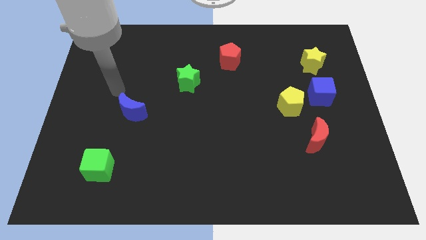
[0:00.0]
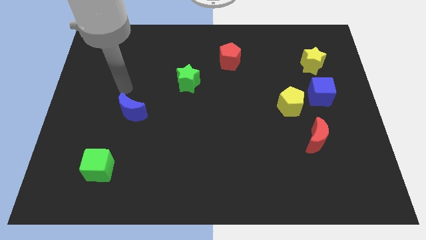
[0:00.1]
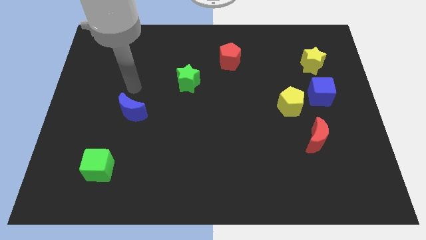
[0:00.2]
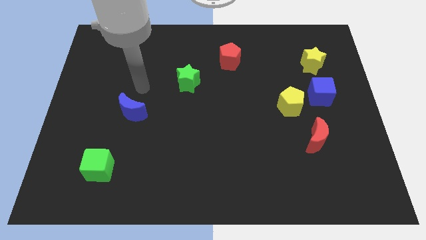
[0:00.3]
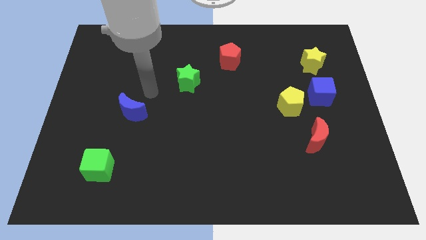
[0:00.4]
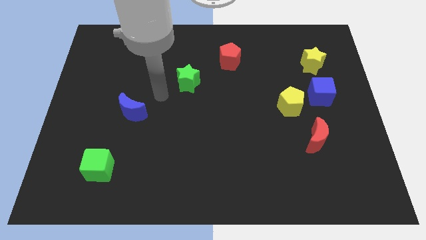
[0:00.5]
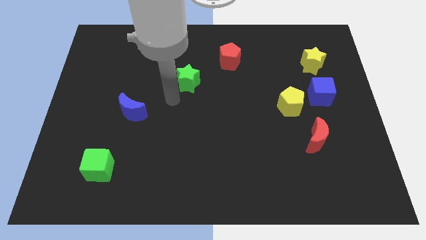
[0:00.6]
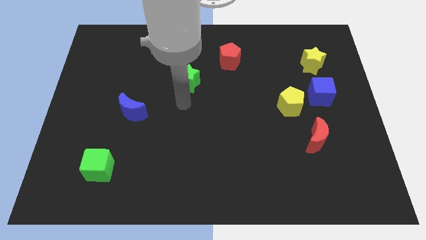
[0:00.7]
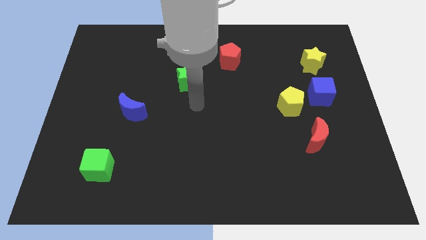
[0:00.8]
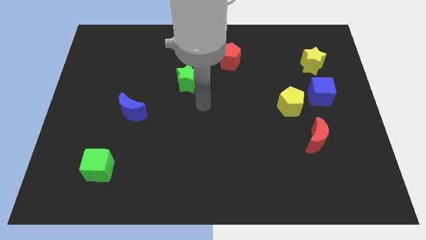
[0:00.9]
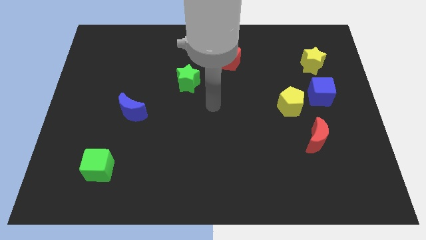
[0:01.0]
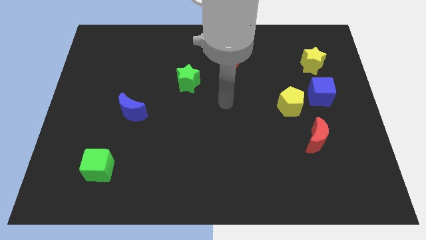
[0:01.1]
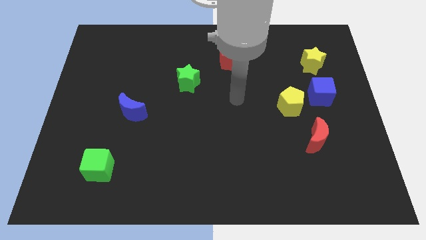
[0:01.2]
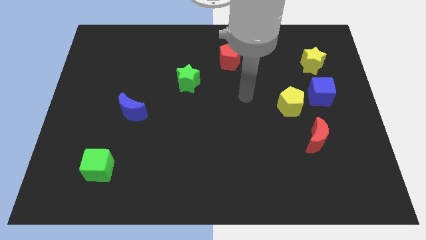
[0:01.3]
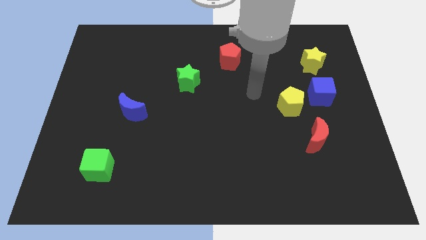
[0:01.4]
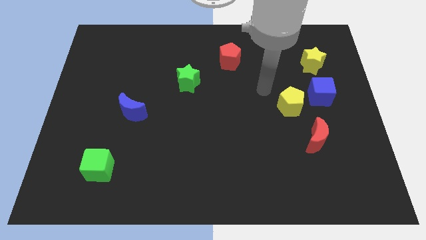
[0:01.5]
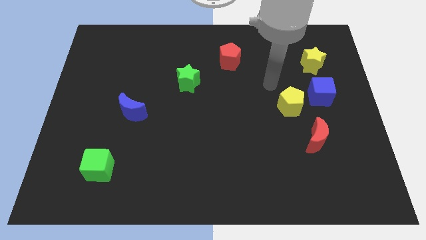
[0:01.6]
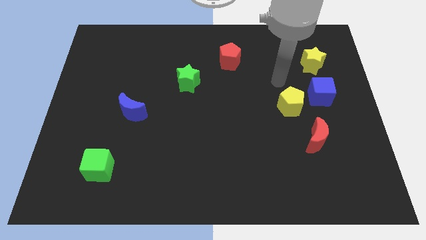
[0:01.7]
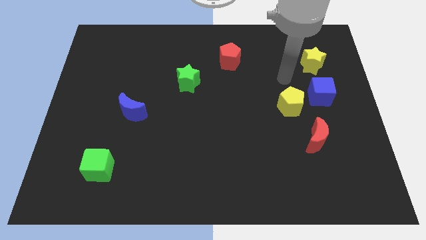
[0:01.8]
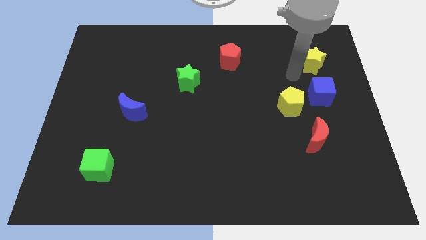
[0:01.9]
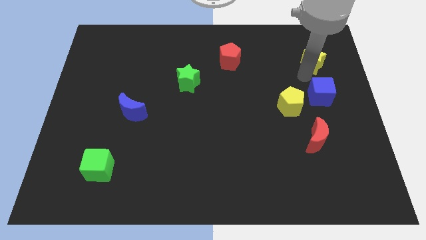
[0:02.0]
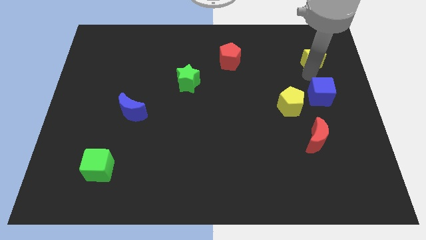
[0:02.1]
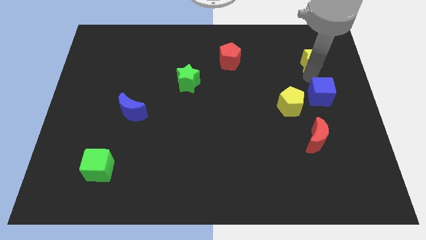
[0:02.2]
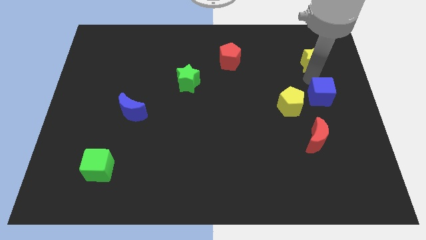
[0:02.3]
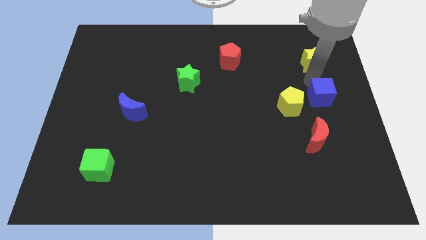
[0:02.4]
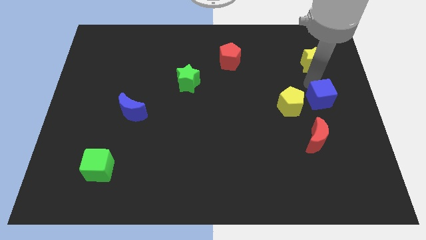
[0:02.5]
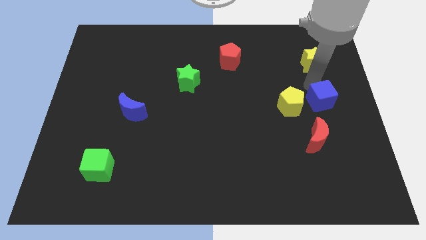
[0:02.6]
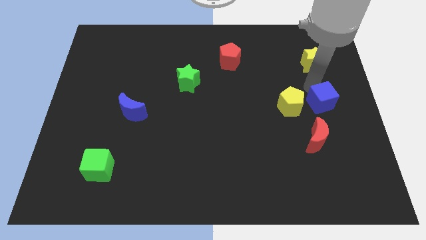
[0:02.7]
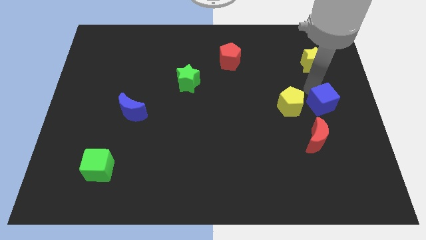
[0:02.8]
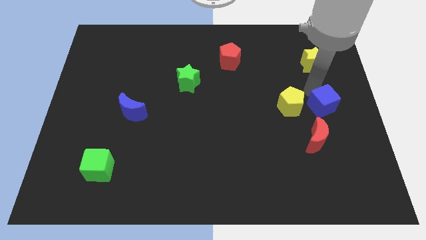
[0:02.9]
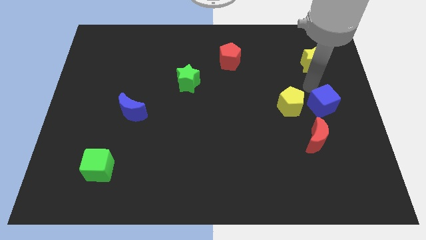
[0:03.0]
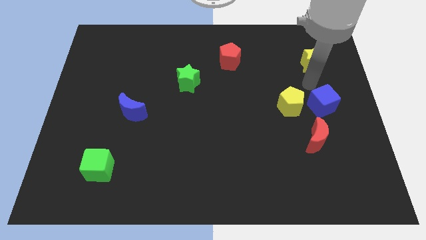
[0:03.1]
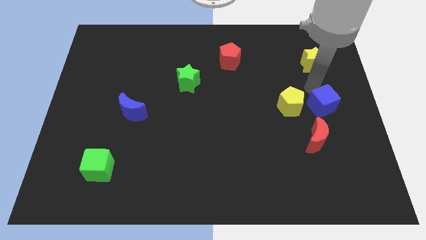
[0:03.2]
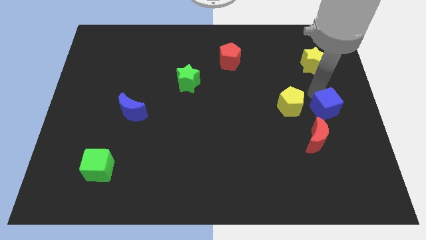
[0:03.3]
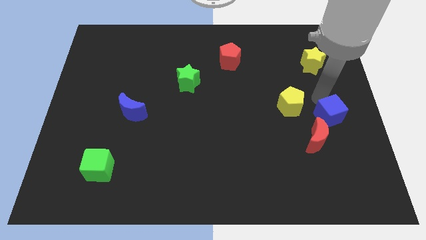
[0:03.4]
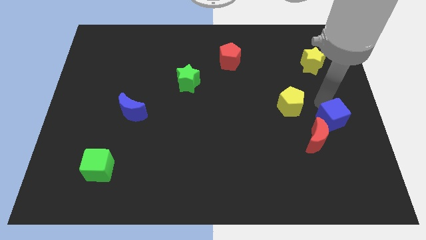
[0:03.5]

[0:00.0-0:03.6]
push the blue cube a little bit downwards

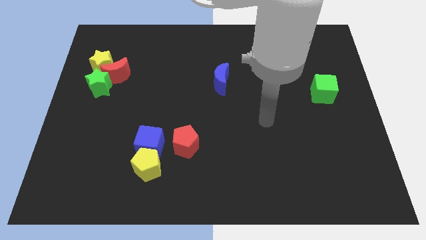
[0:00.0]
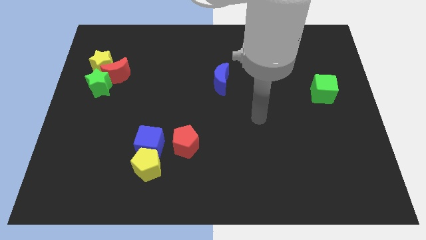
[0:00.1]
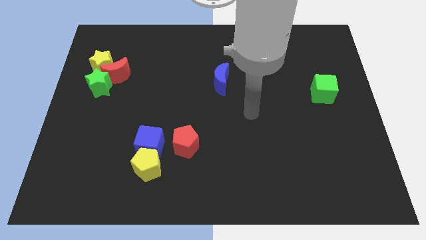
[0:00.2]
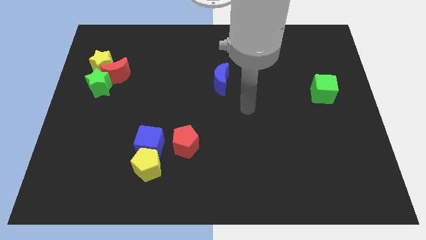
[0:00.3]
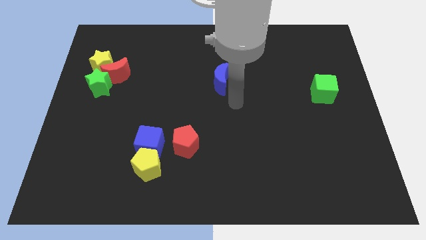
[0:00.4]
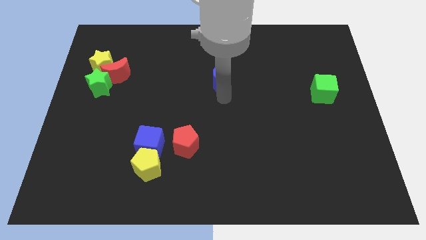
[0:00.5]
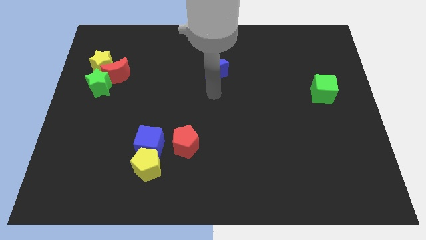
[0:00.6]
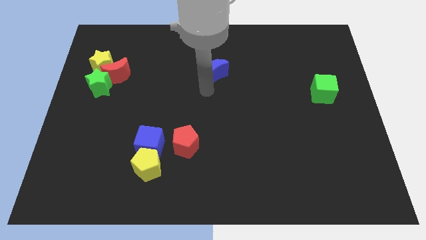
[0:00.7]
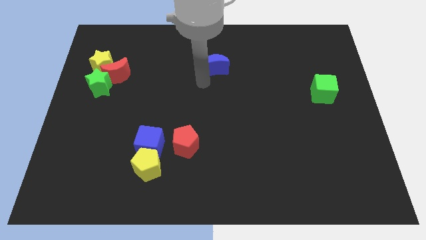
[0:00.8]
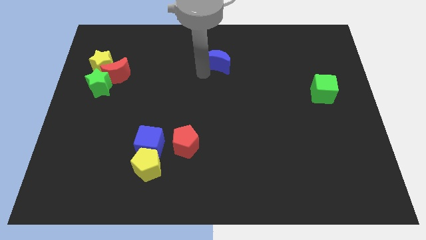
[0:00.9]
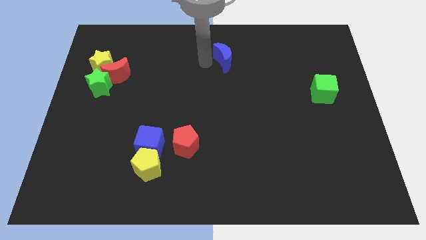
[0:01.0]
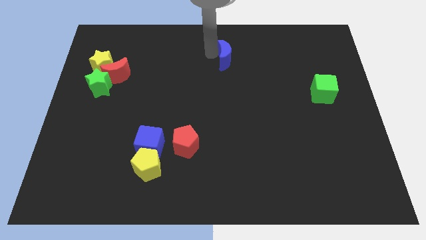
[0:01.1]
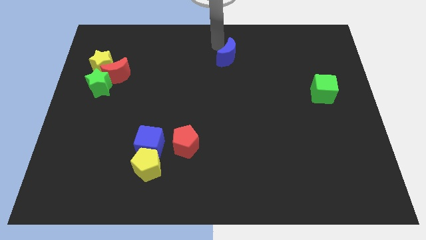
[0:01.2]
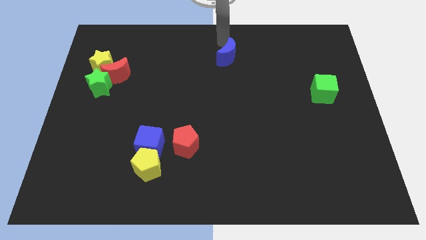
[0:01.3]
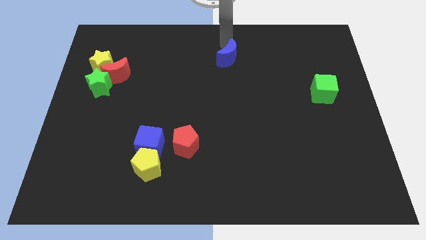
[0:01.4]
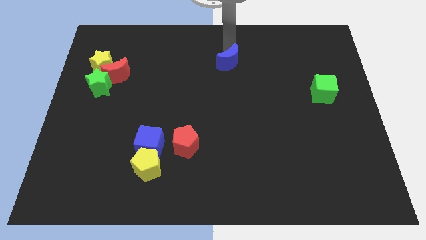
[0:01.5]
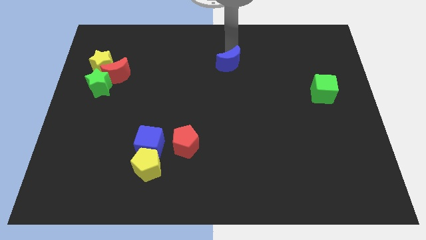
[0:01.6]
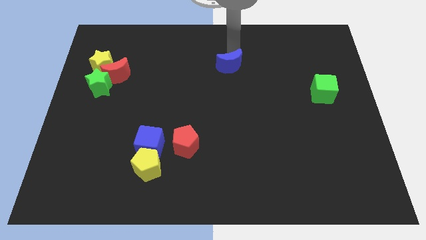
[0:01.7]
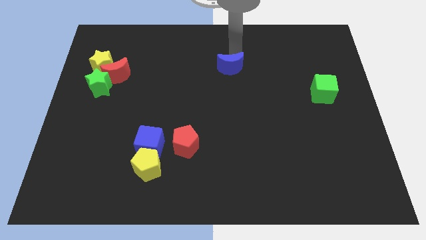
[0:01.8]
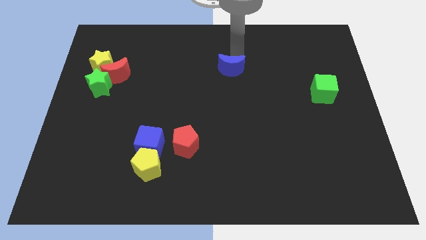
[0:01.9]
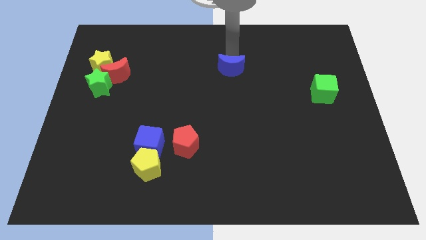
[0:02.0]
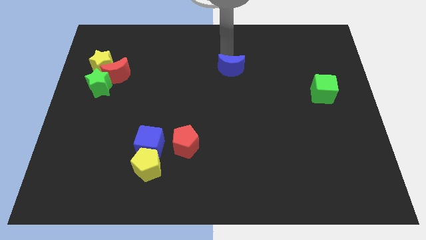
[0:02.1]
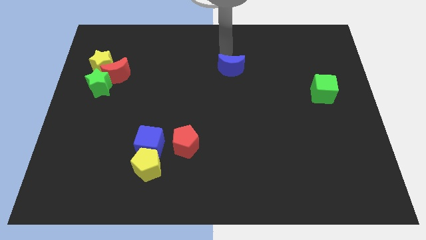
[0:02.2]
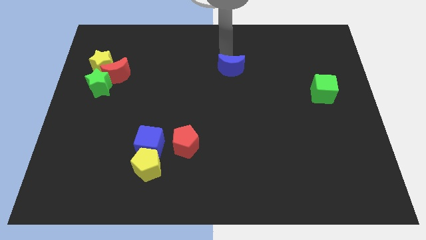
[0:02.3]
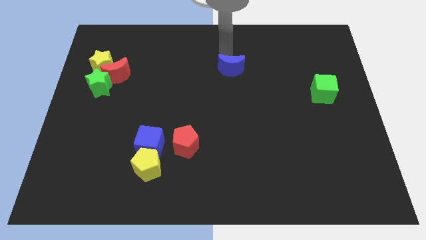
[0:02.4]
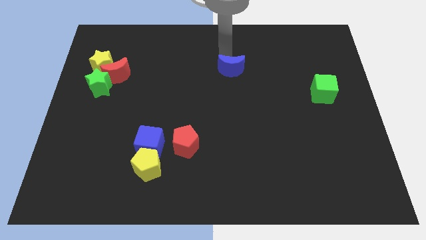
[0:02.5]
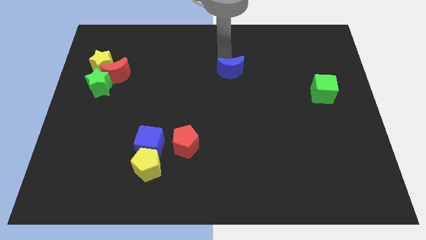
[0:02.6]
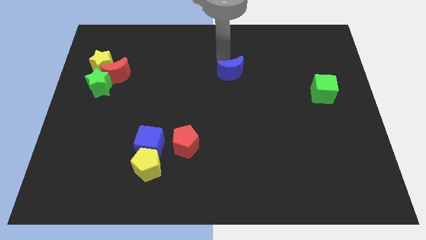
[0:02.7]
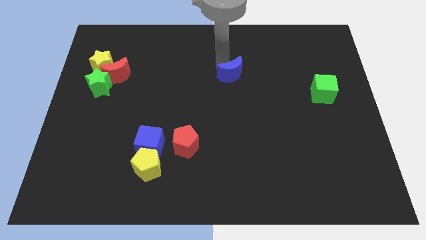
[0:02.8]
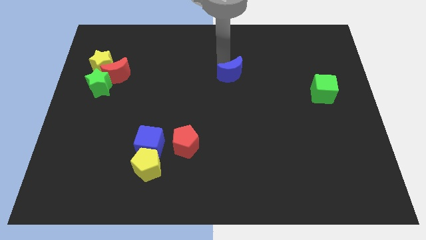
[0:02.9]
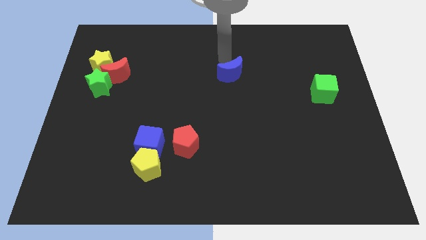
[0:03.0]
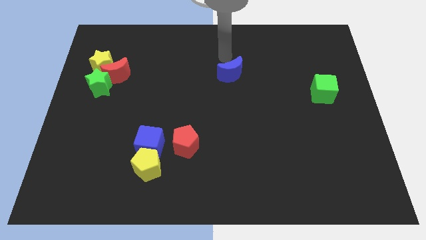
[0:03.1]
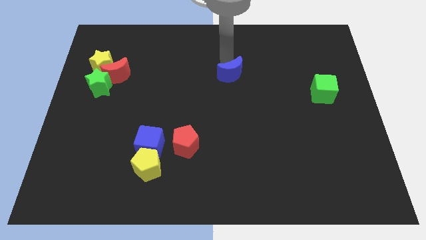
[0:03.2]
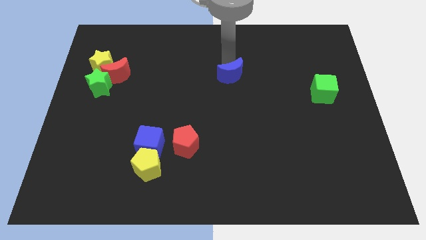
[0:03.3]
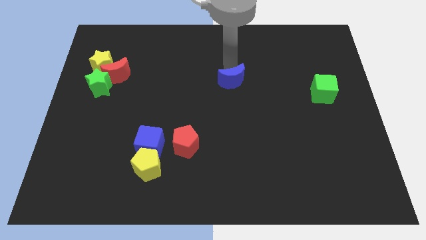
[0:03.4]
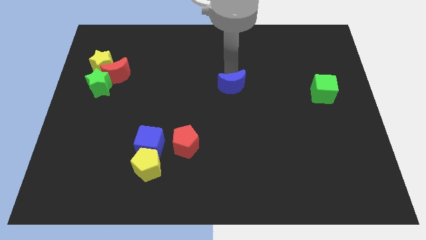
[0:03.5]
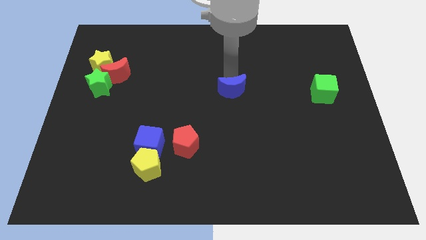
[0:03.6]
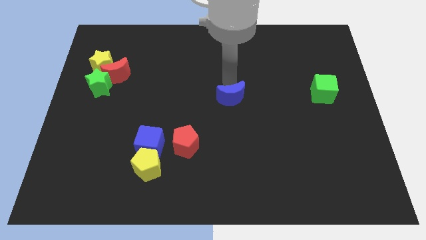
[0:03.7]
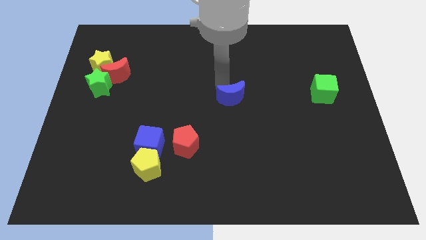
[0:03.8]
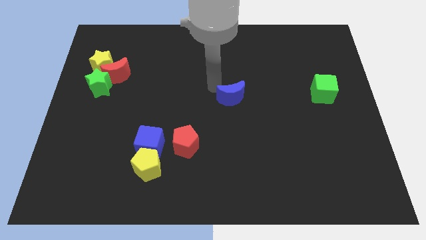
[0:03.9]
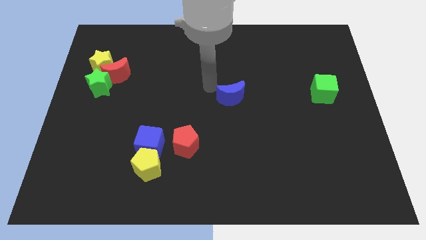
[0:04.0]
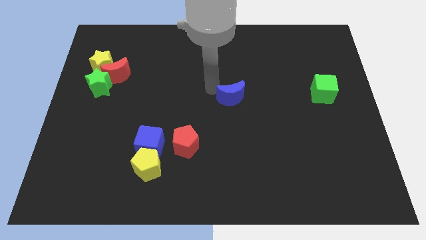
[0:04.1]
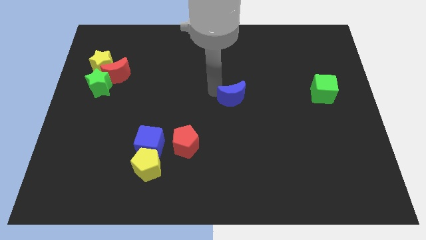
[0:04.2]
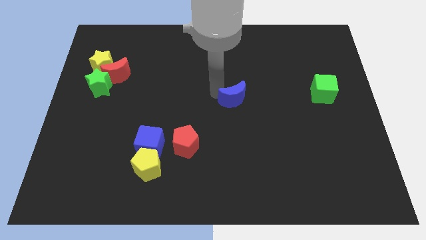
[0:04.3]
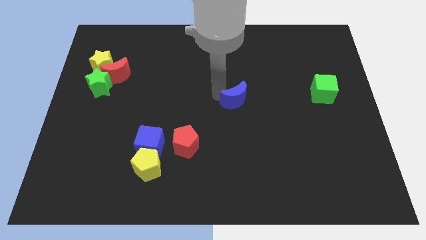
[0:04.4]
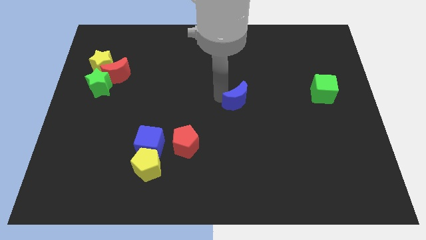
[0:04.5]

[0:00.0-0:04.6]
slightly push the blue moon downwards and to the right
